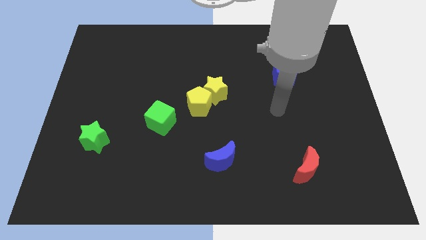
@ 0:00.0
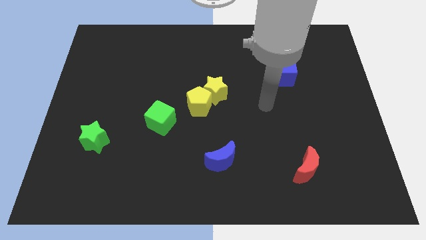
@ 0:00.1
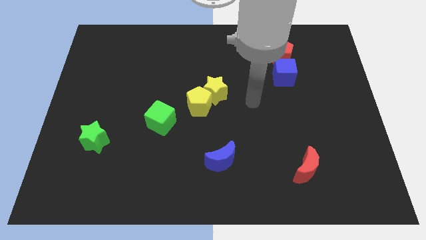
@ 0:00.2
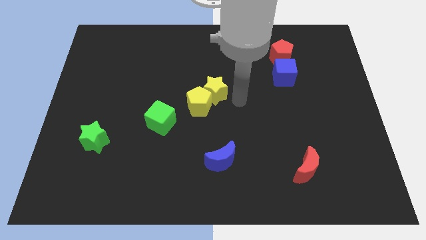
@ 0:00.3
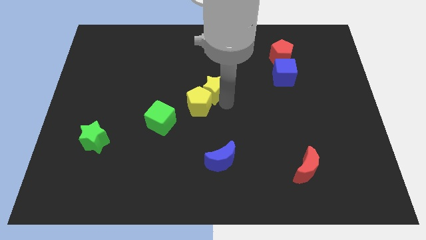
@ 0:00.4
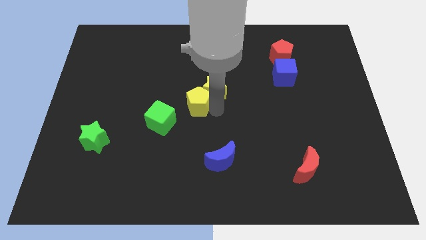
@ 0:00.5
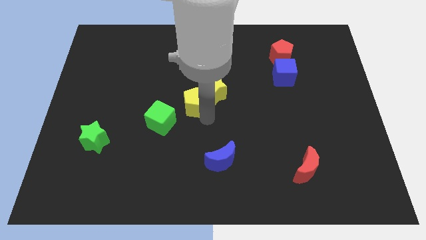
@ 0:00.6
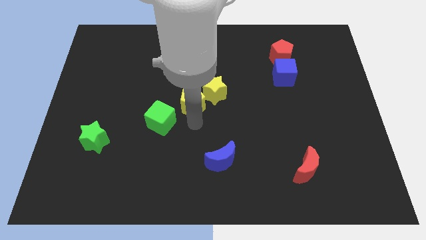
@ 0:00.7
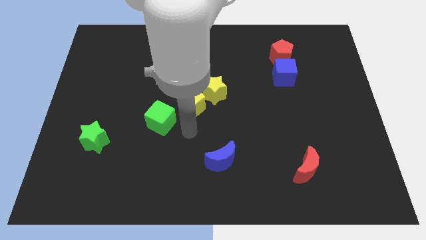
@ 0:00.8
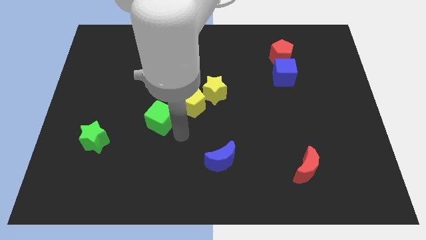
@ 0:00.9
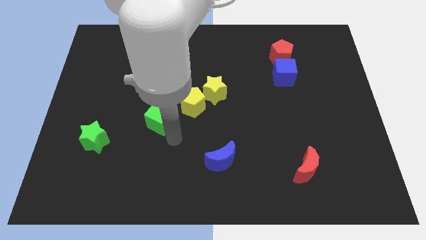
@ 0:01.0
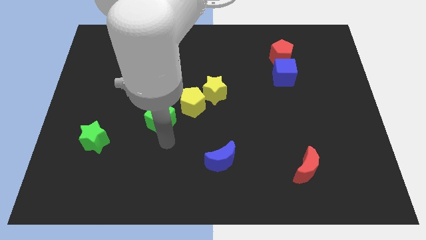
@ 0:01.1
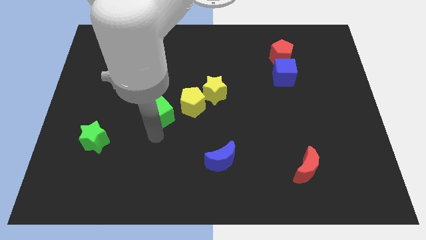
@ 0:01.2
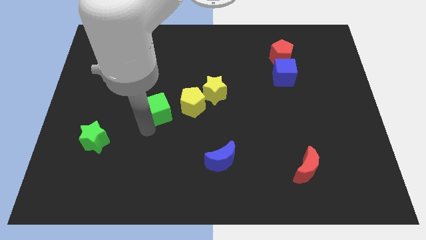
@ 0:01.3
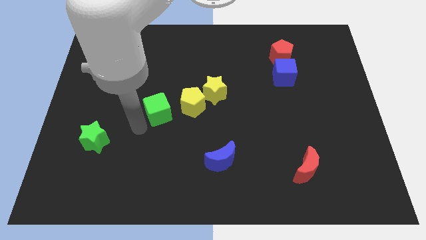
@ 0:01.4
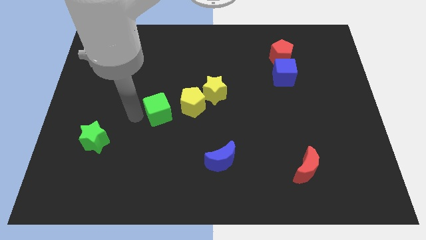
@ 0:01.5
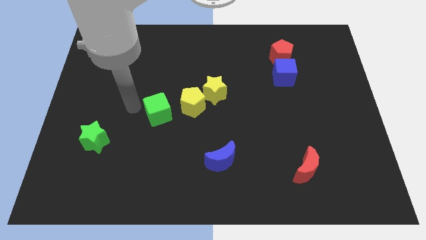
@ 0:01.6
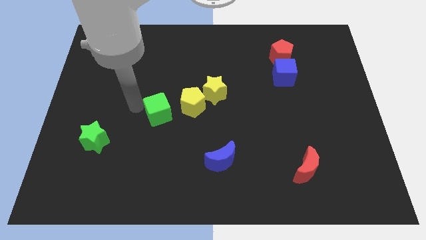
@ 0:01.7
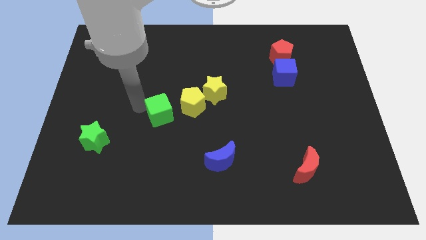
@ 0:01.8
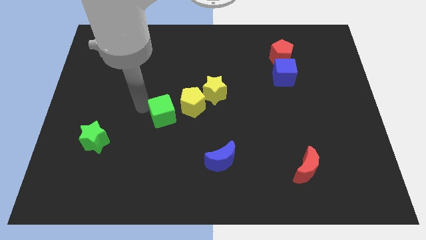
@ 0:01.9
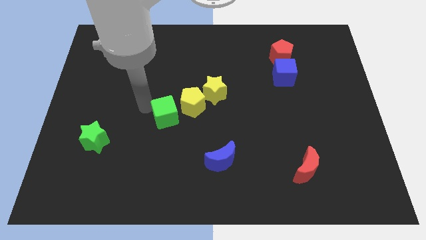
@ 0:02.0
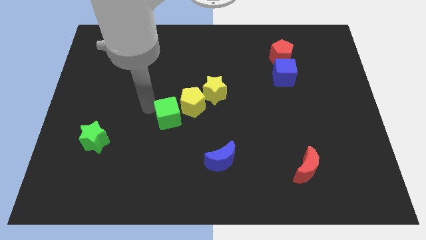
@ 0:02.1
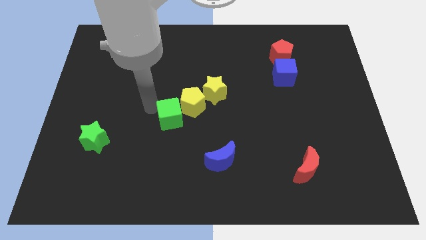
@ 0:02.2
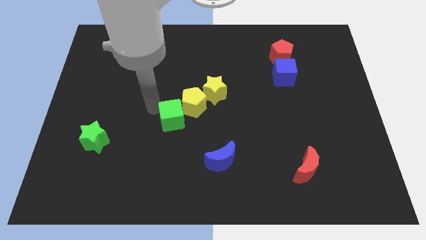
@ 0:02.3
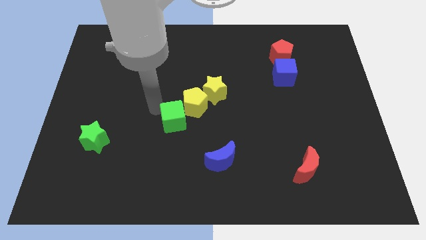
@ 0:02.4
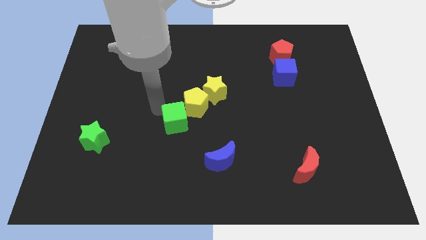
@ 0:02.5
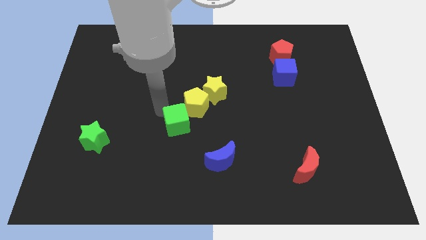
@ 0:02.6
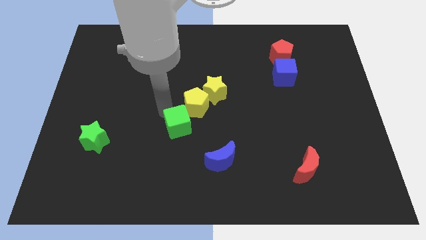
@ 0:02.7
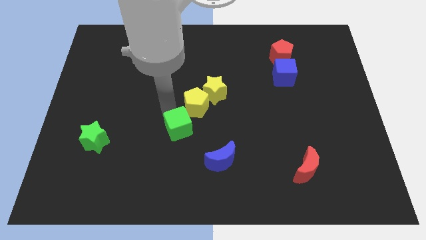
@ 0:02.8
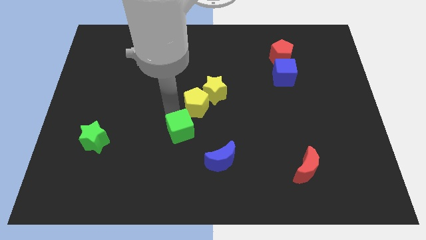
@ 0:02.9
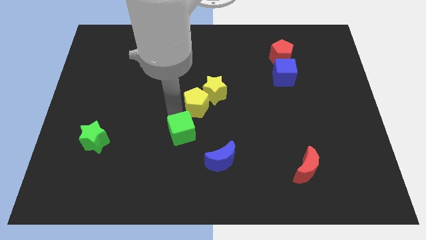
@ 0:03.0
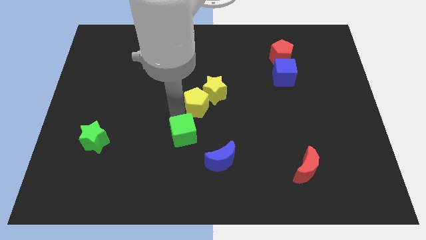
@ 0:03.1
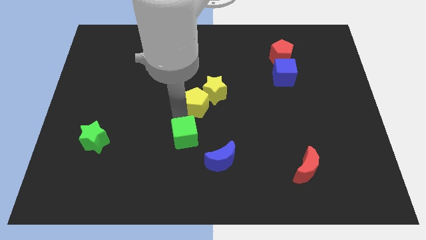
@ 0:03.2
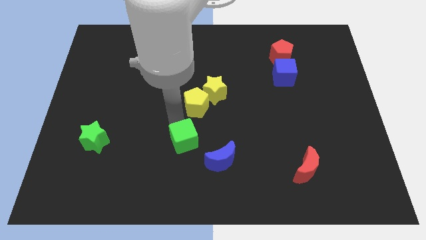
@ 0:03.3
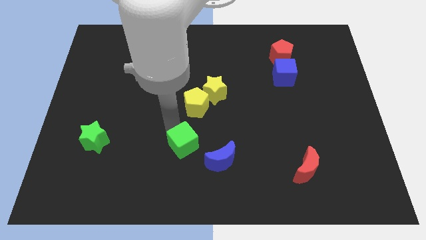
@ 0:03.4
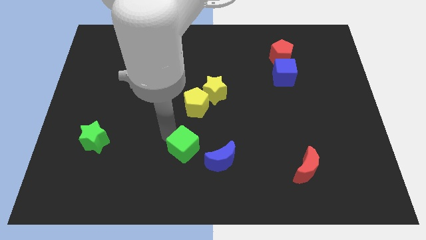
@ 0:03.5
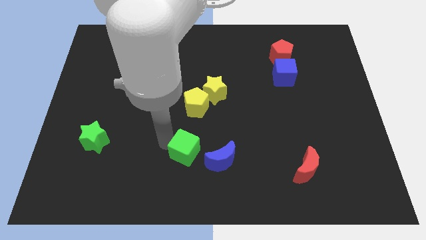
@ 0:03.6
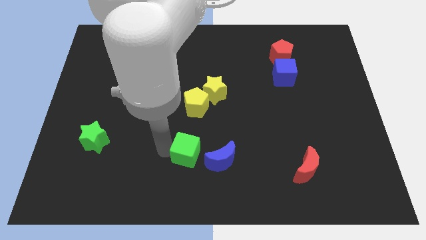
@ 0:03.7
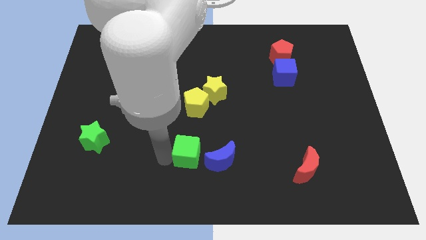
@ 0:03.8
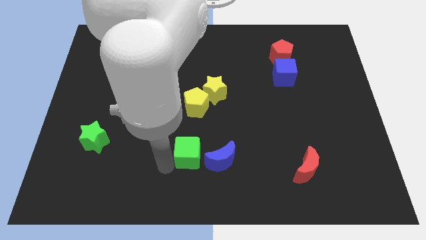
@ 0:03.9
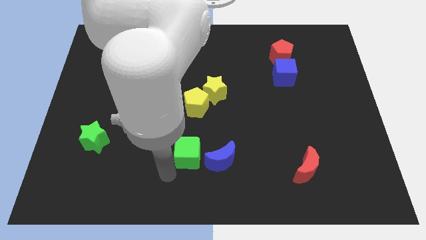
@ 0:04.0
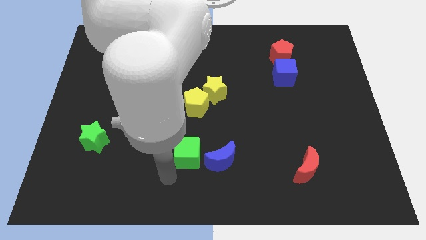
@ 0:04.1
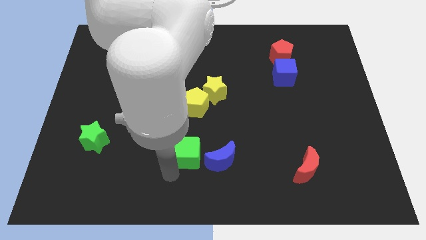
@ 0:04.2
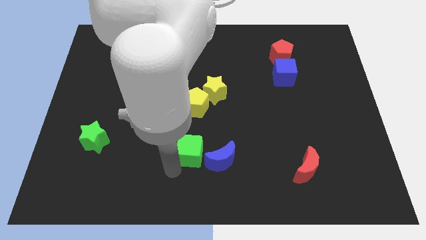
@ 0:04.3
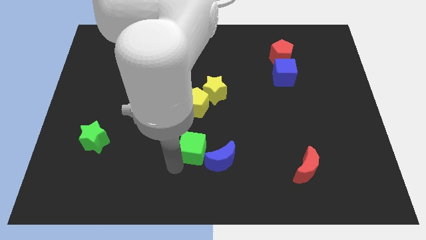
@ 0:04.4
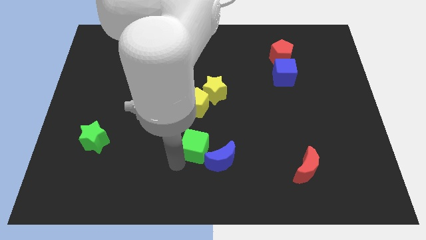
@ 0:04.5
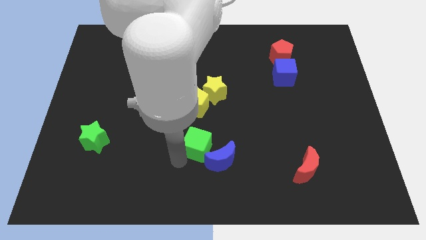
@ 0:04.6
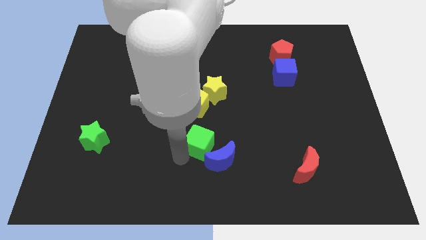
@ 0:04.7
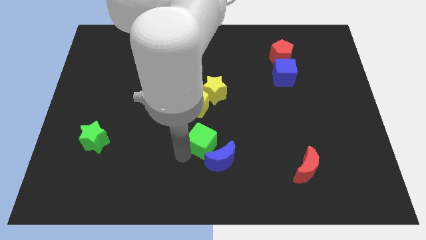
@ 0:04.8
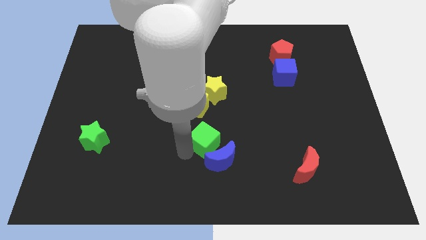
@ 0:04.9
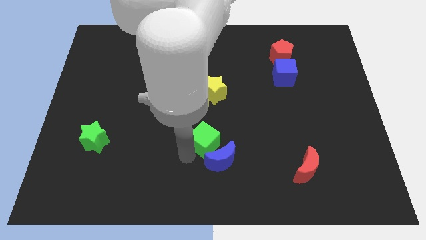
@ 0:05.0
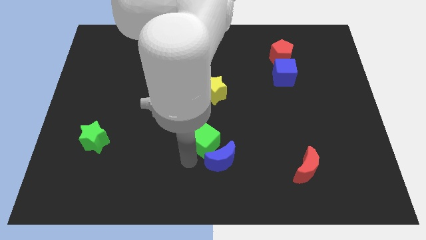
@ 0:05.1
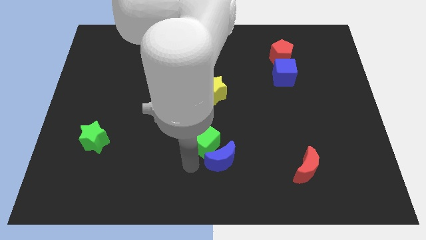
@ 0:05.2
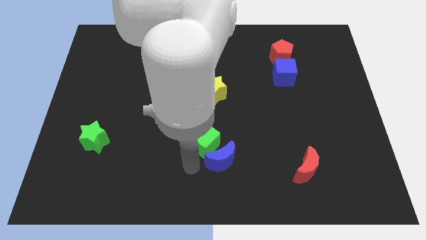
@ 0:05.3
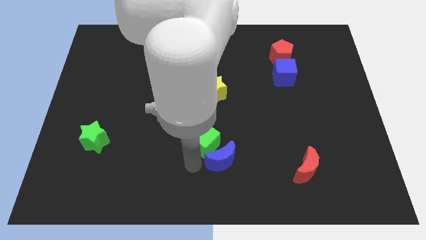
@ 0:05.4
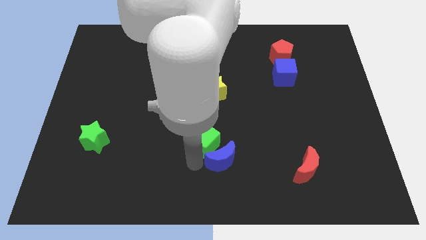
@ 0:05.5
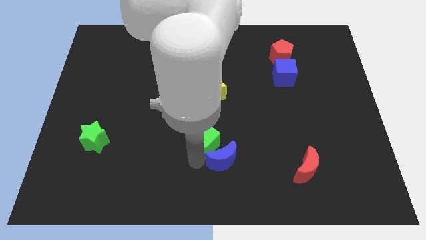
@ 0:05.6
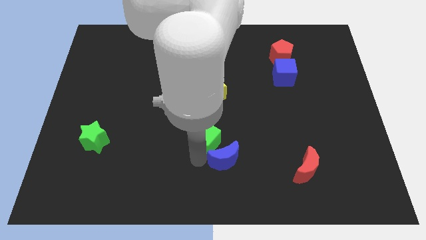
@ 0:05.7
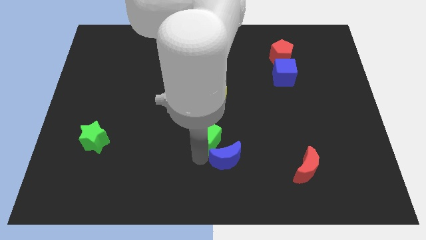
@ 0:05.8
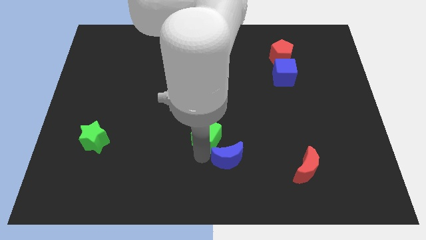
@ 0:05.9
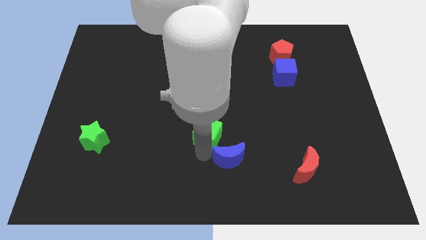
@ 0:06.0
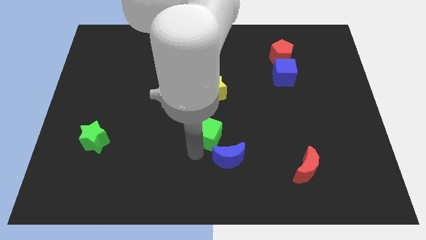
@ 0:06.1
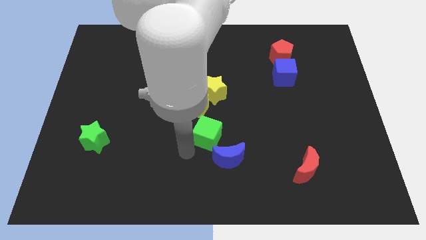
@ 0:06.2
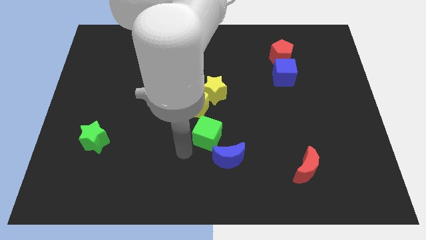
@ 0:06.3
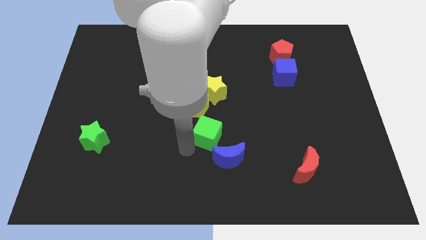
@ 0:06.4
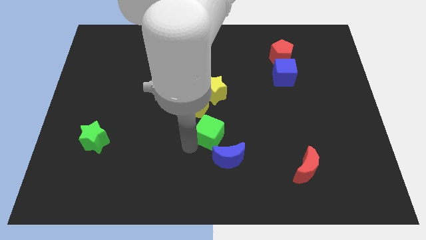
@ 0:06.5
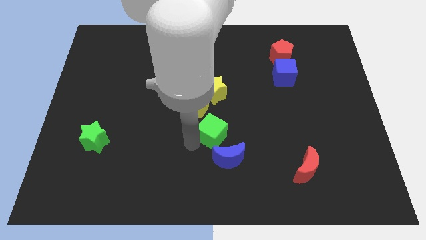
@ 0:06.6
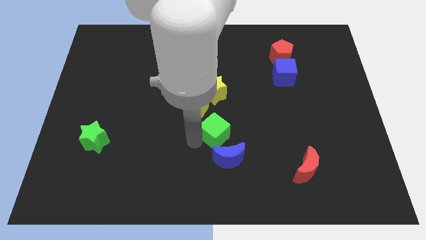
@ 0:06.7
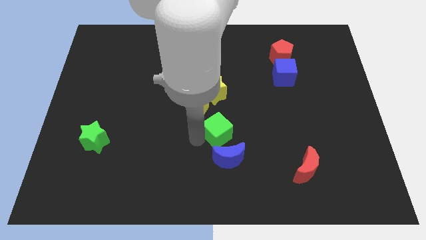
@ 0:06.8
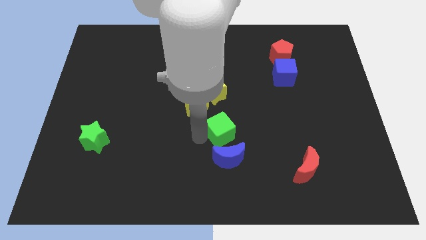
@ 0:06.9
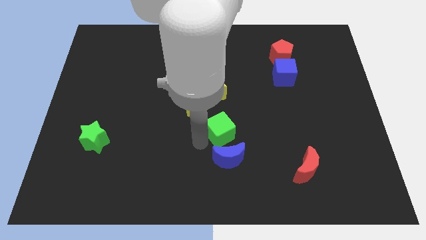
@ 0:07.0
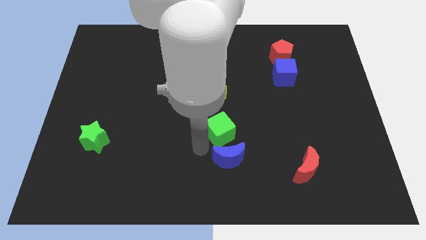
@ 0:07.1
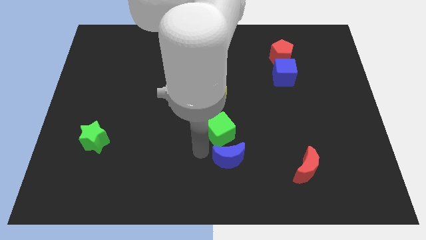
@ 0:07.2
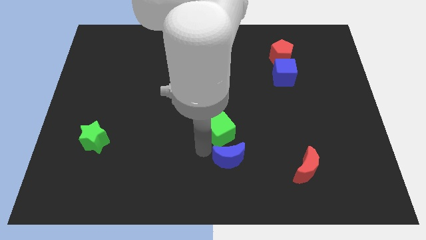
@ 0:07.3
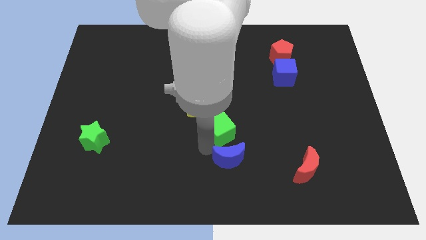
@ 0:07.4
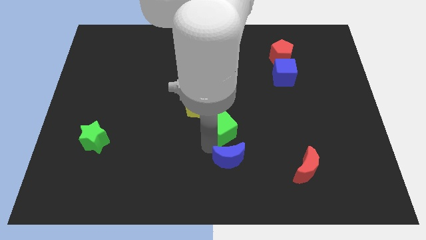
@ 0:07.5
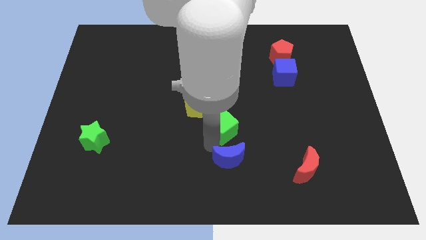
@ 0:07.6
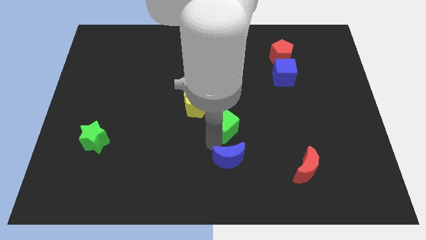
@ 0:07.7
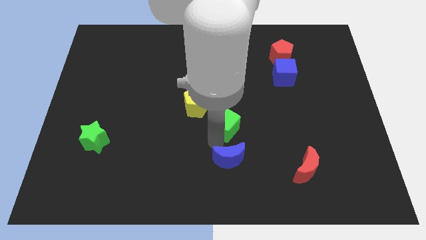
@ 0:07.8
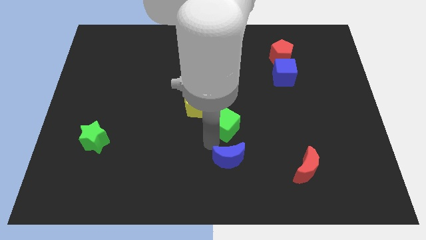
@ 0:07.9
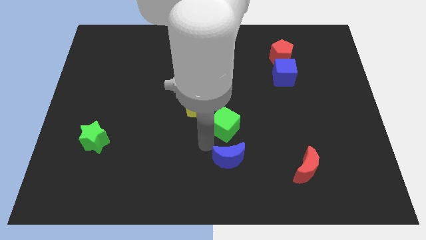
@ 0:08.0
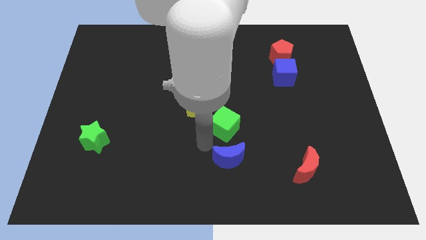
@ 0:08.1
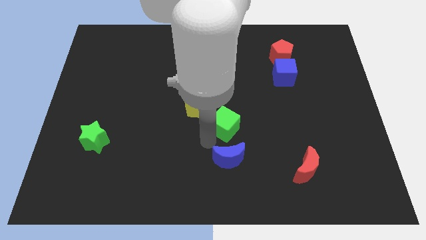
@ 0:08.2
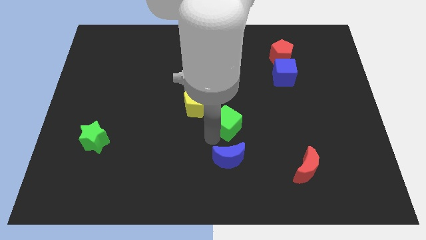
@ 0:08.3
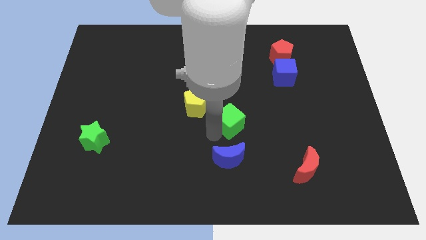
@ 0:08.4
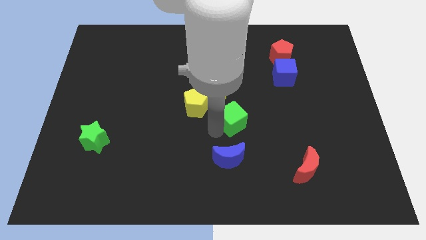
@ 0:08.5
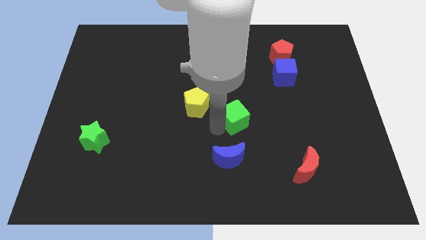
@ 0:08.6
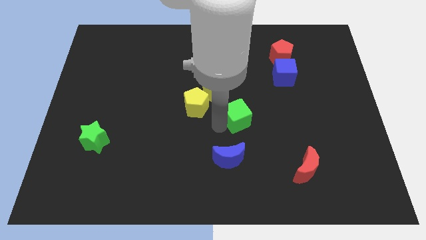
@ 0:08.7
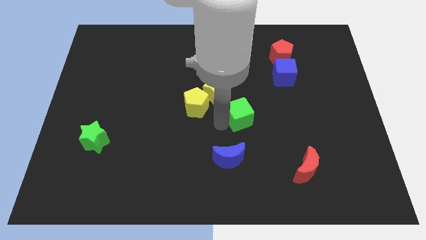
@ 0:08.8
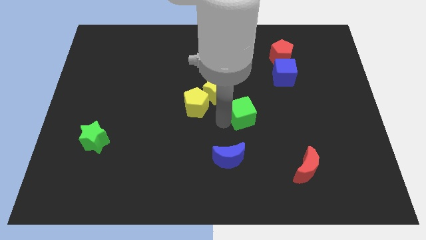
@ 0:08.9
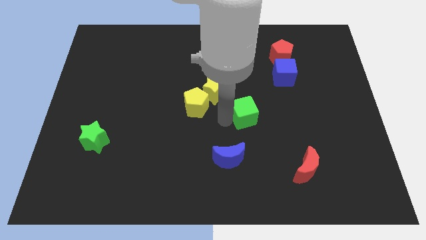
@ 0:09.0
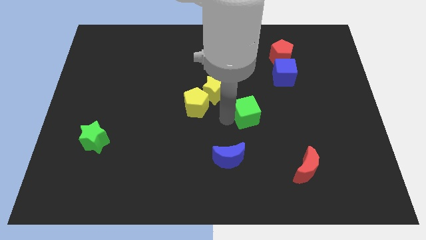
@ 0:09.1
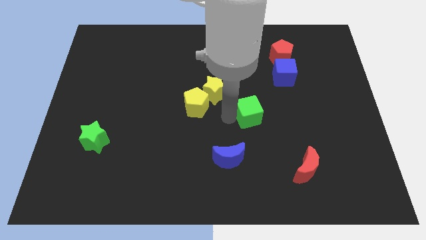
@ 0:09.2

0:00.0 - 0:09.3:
push the green cube right
